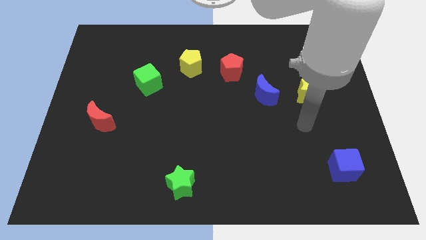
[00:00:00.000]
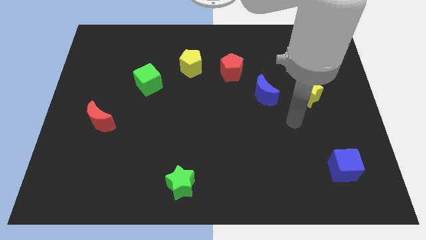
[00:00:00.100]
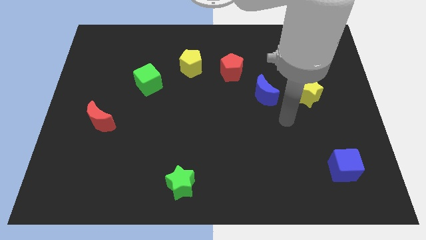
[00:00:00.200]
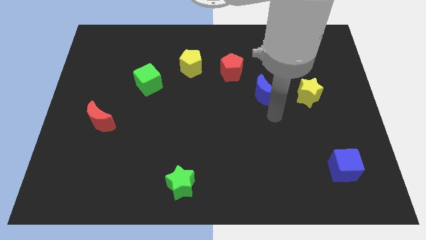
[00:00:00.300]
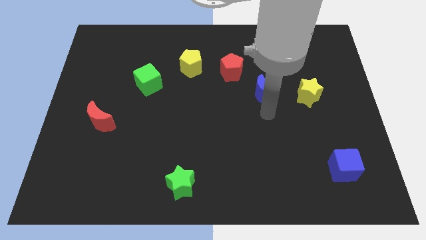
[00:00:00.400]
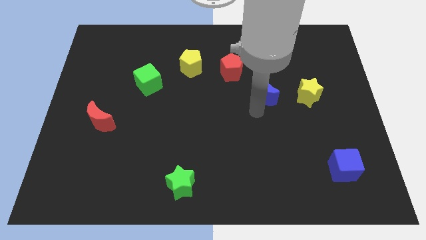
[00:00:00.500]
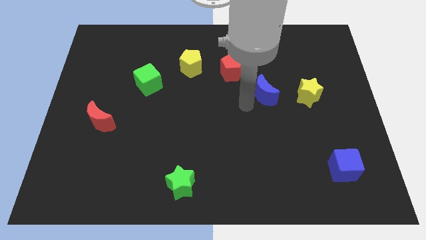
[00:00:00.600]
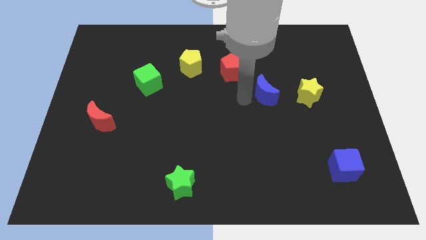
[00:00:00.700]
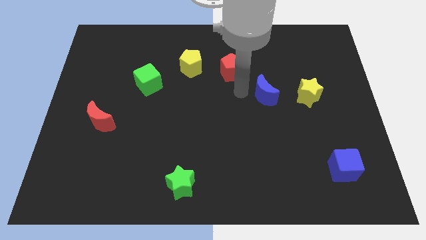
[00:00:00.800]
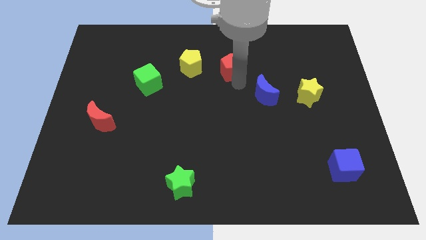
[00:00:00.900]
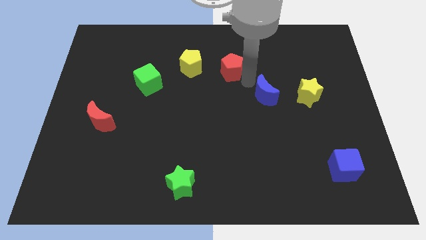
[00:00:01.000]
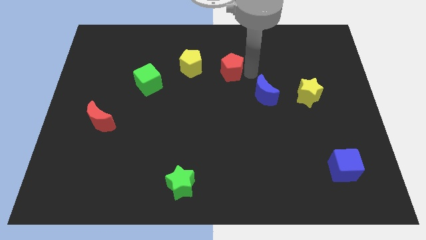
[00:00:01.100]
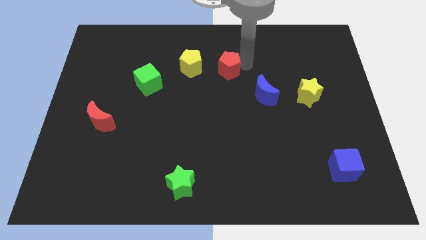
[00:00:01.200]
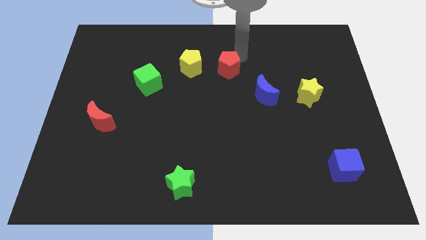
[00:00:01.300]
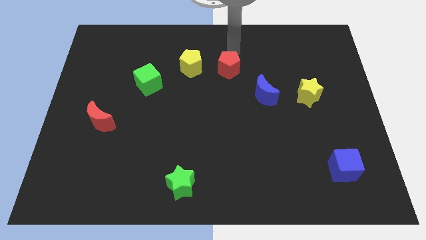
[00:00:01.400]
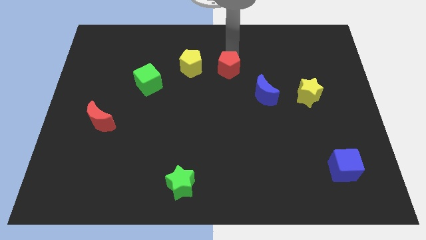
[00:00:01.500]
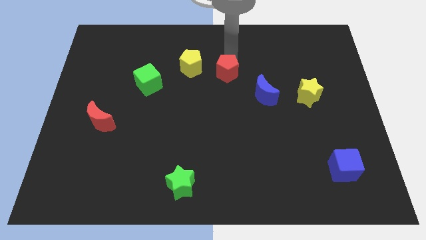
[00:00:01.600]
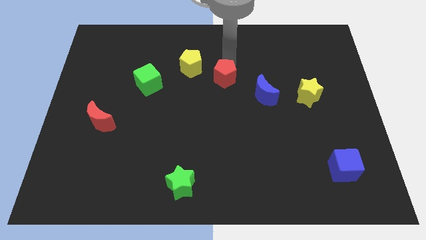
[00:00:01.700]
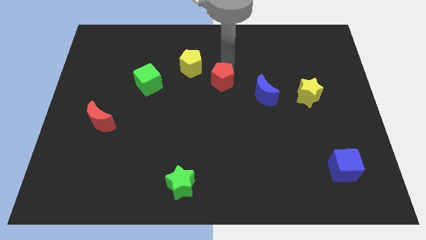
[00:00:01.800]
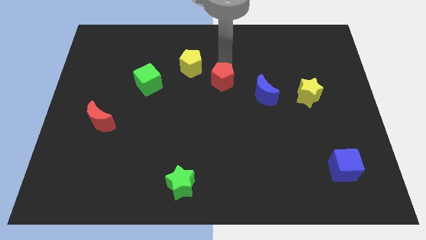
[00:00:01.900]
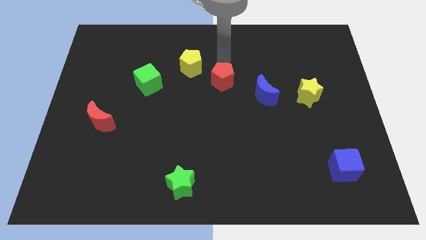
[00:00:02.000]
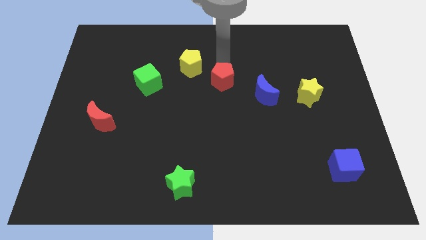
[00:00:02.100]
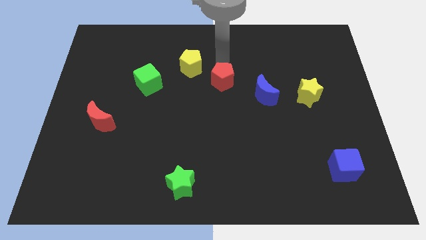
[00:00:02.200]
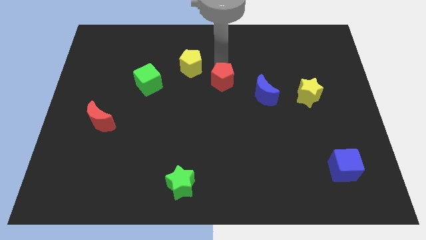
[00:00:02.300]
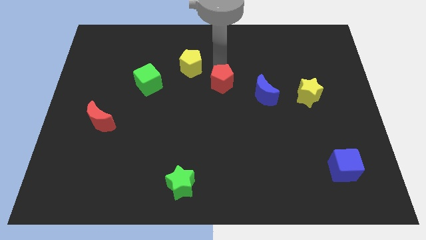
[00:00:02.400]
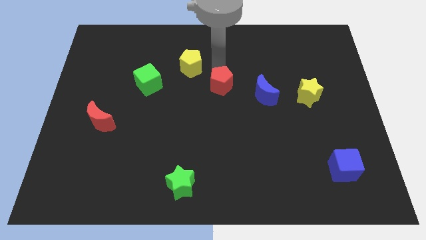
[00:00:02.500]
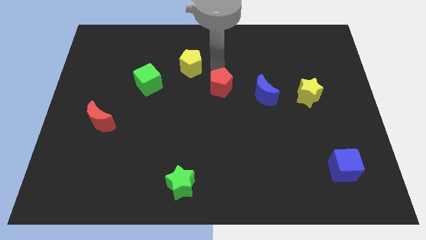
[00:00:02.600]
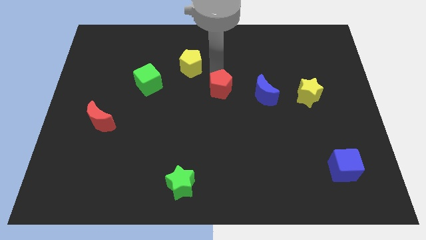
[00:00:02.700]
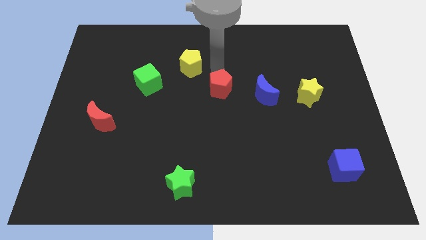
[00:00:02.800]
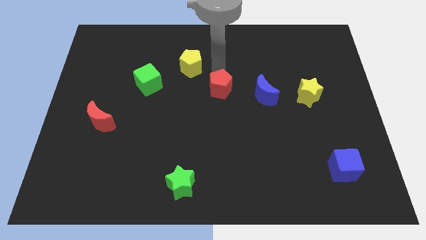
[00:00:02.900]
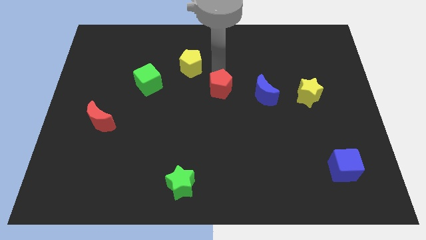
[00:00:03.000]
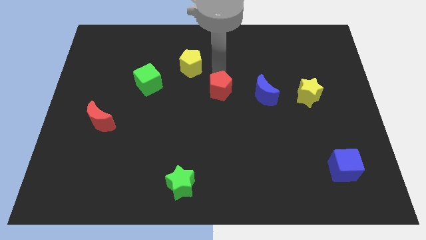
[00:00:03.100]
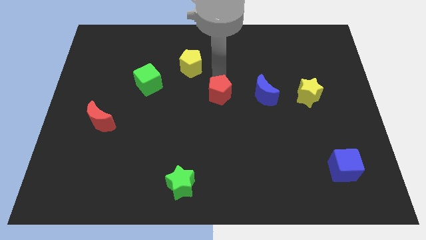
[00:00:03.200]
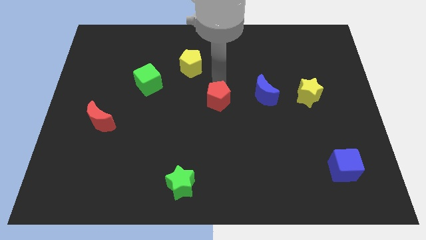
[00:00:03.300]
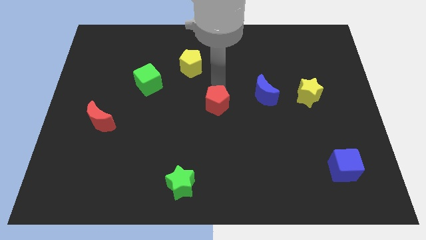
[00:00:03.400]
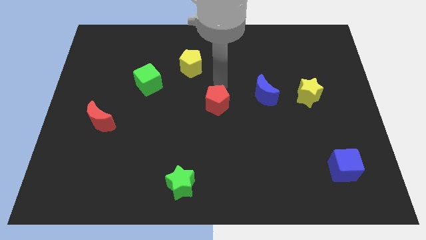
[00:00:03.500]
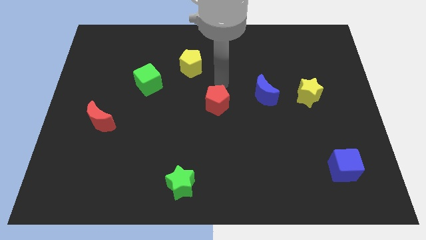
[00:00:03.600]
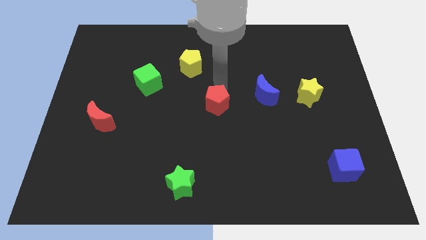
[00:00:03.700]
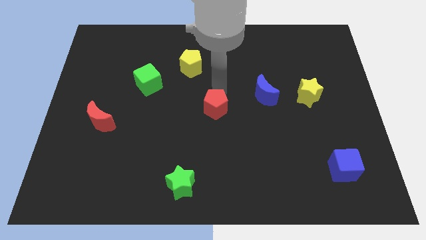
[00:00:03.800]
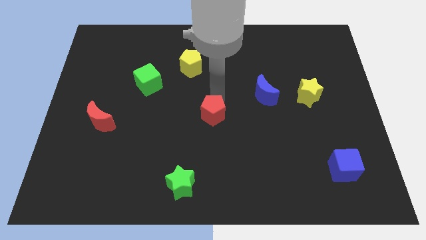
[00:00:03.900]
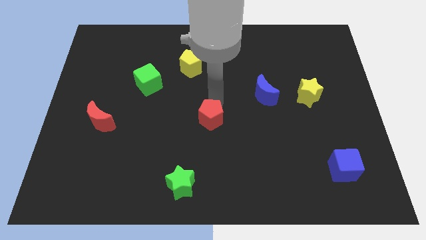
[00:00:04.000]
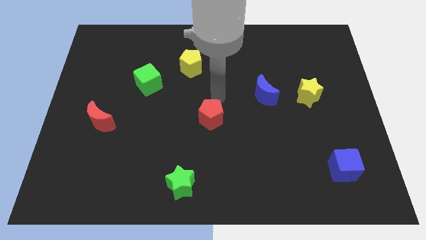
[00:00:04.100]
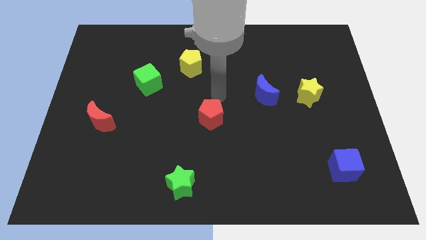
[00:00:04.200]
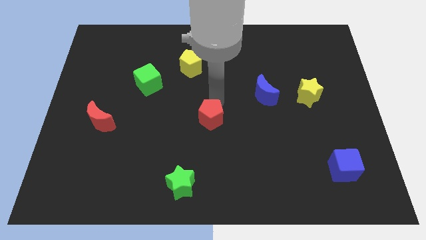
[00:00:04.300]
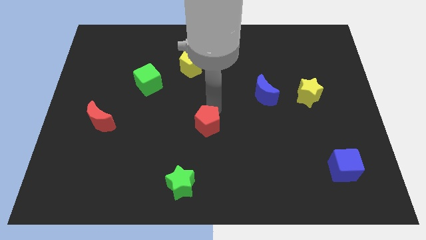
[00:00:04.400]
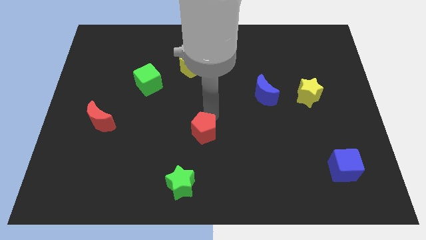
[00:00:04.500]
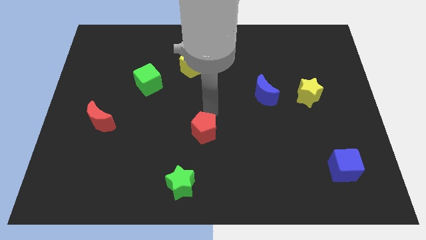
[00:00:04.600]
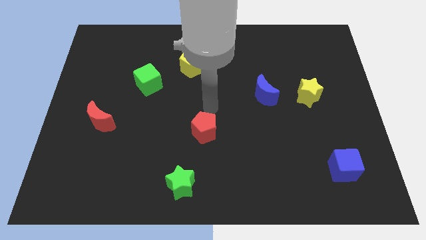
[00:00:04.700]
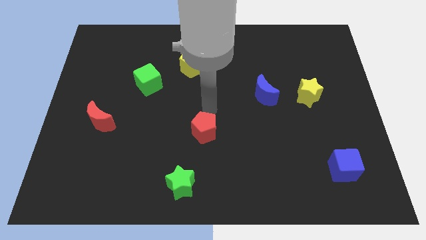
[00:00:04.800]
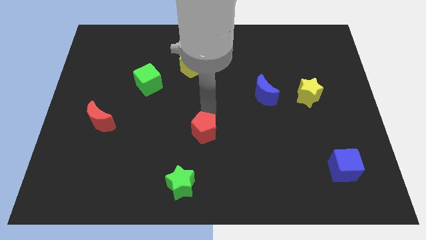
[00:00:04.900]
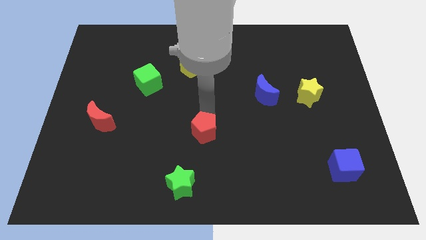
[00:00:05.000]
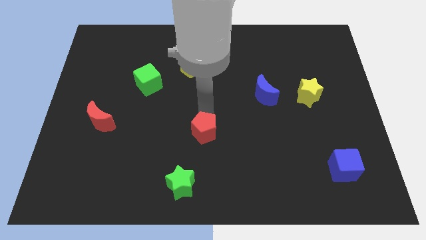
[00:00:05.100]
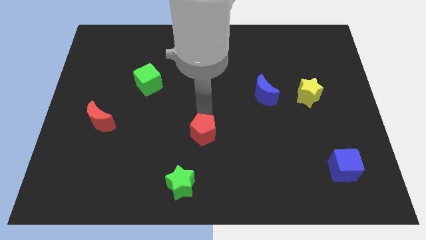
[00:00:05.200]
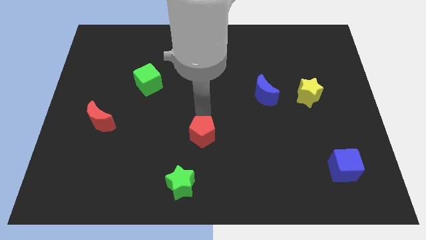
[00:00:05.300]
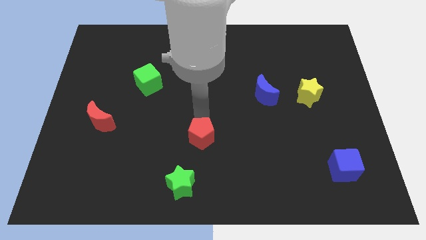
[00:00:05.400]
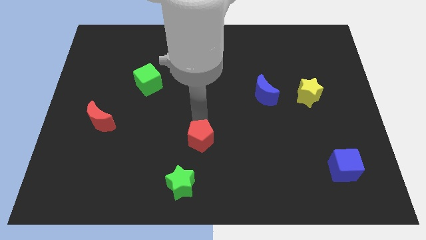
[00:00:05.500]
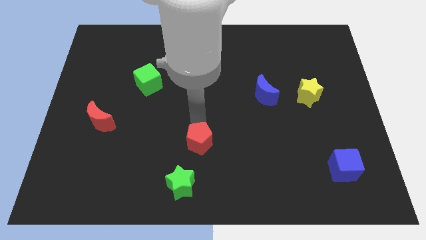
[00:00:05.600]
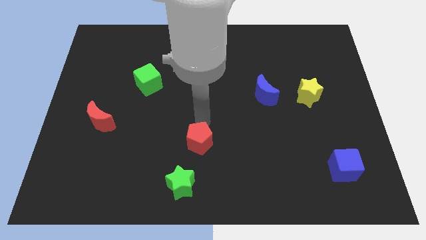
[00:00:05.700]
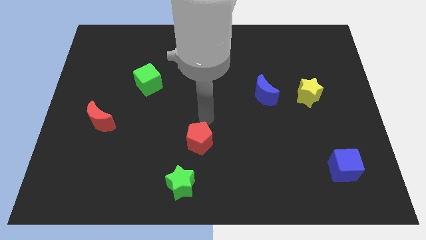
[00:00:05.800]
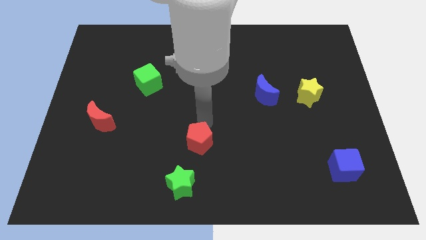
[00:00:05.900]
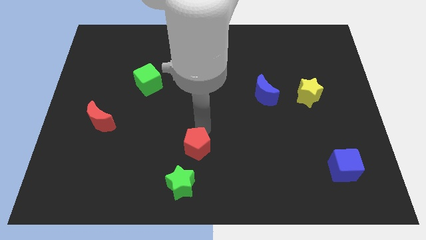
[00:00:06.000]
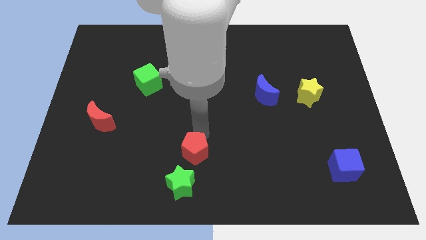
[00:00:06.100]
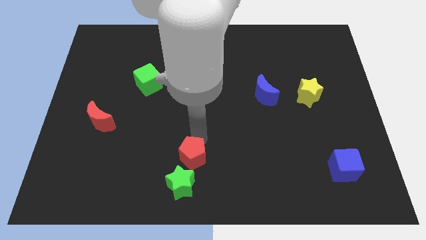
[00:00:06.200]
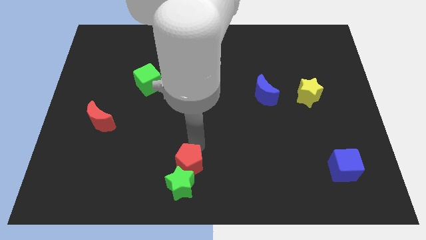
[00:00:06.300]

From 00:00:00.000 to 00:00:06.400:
push the red pentagon towards the green star

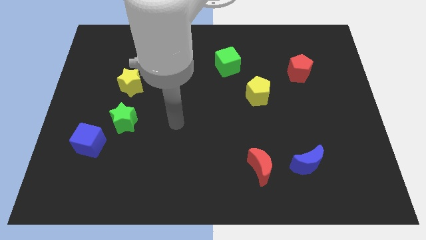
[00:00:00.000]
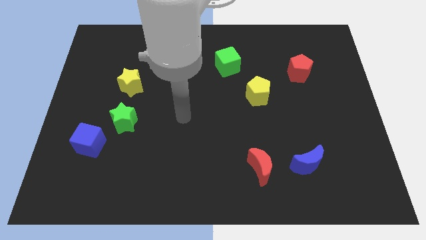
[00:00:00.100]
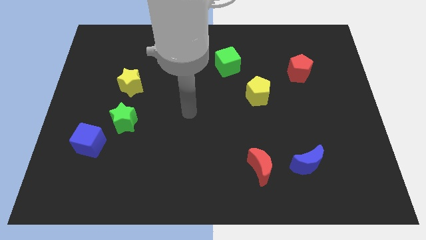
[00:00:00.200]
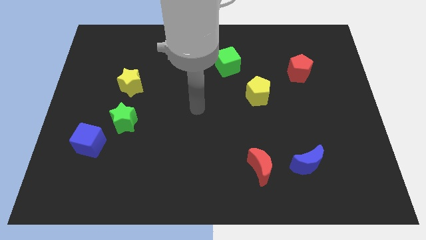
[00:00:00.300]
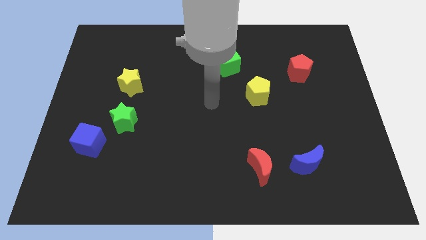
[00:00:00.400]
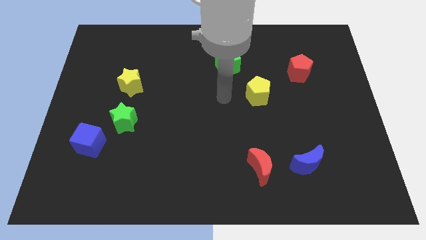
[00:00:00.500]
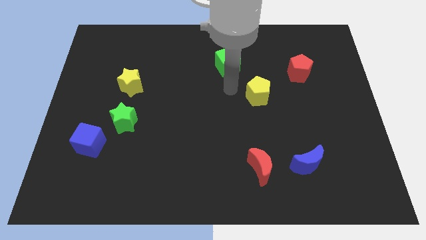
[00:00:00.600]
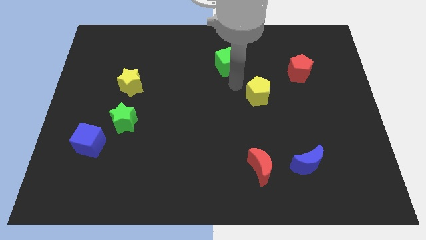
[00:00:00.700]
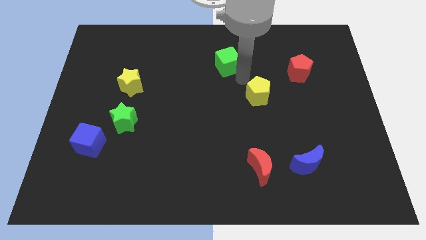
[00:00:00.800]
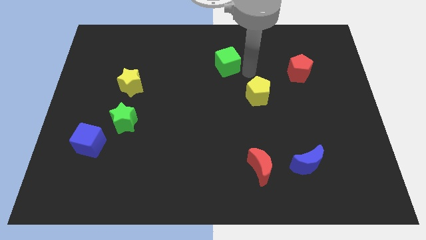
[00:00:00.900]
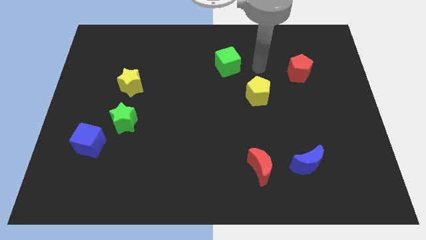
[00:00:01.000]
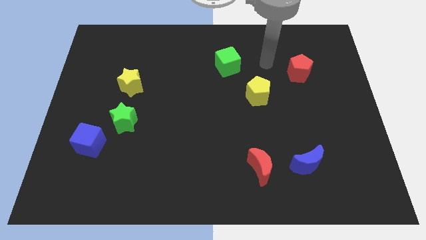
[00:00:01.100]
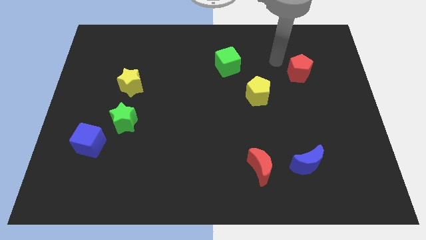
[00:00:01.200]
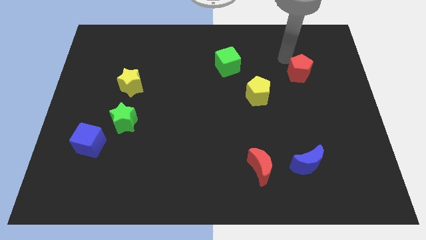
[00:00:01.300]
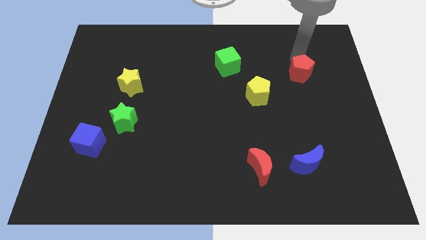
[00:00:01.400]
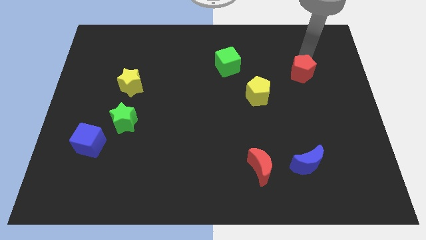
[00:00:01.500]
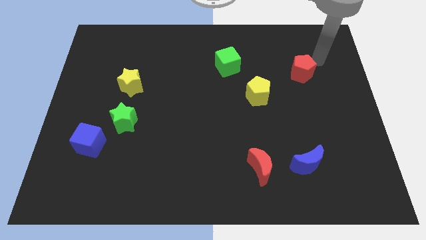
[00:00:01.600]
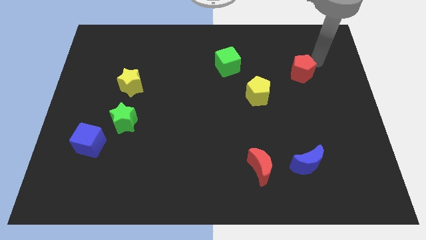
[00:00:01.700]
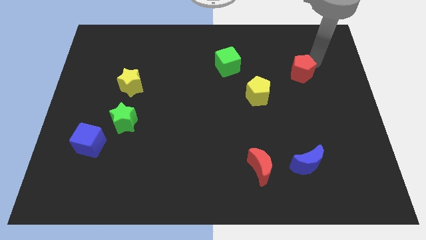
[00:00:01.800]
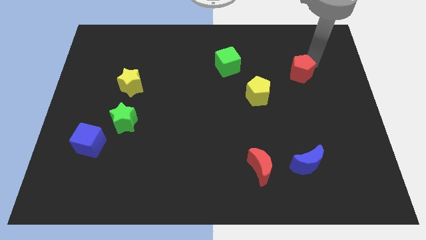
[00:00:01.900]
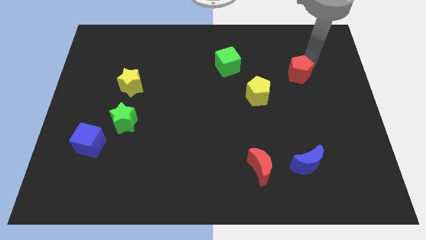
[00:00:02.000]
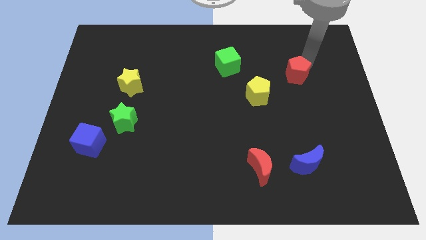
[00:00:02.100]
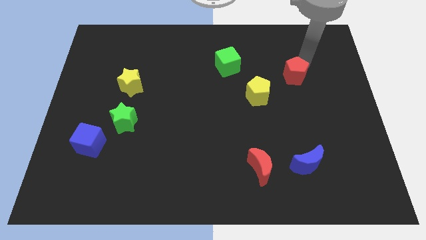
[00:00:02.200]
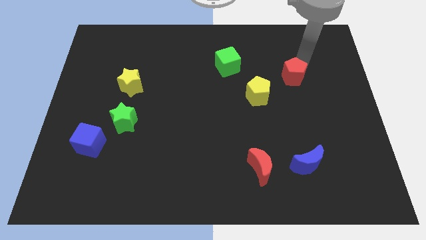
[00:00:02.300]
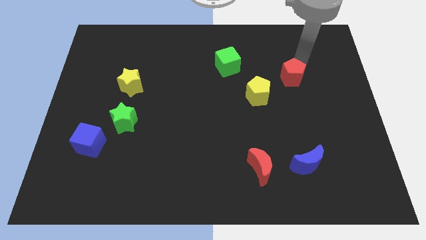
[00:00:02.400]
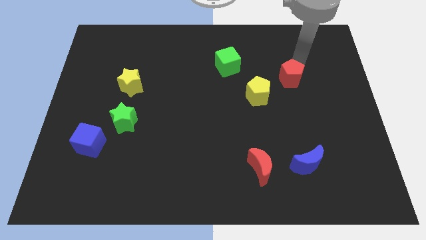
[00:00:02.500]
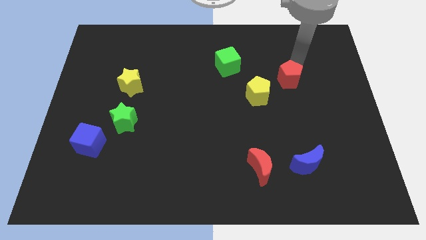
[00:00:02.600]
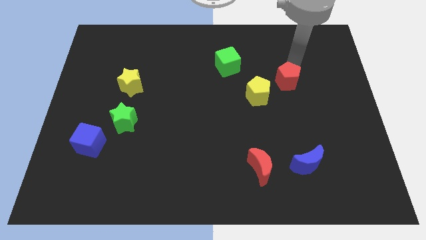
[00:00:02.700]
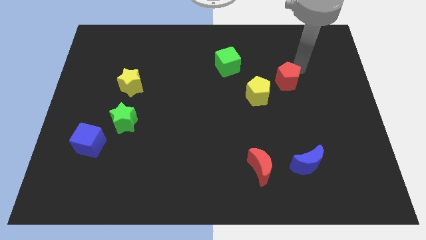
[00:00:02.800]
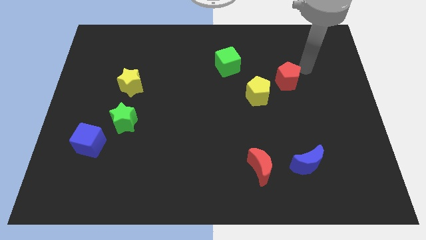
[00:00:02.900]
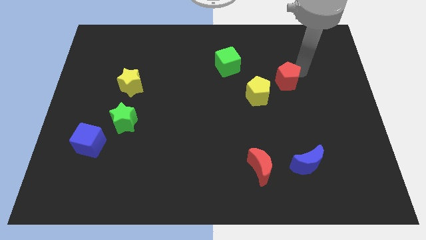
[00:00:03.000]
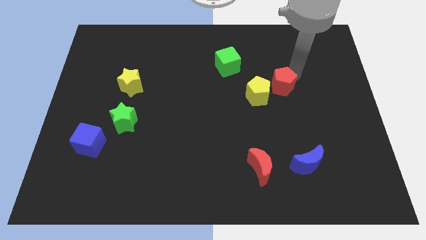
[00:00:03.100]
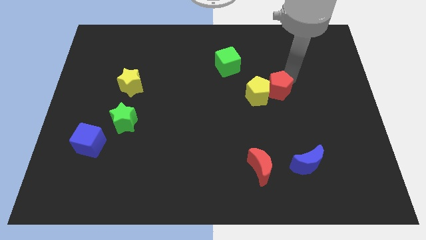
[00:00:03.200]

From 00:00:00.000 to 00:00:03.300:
move the red pentagon to the yellow pentagon
